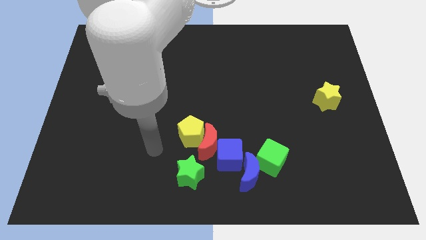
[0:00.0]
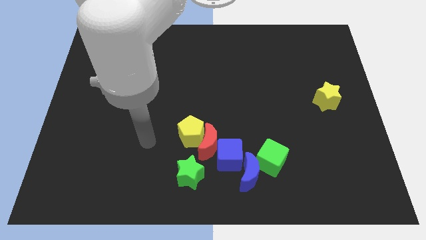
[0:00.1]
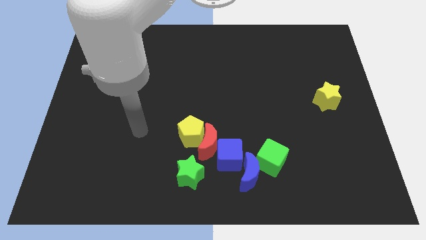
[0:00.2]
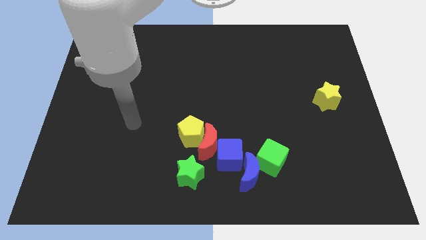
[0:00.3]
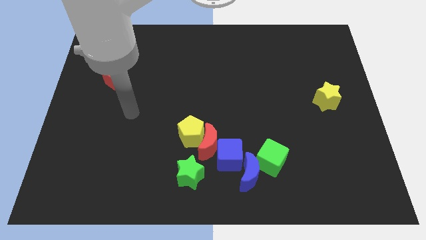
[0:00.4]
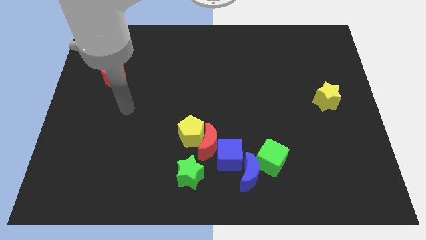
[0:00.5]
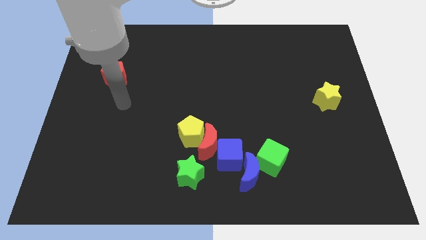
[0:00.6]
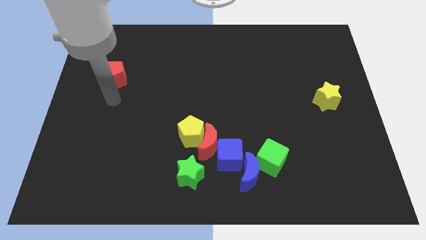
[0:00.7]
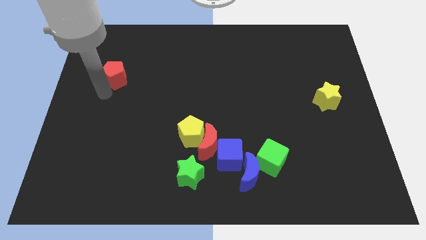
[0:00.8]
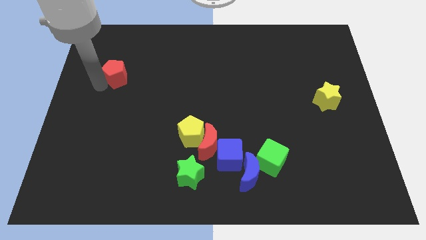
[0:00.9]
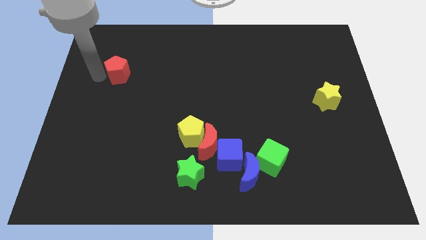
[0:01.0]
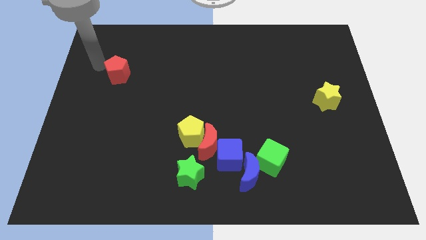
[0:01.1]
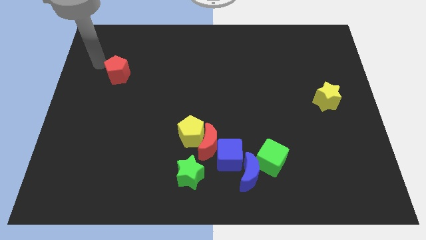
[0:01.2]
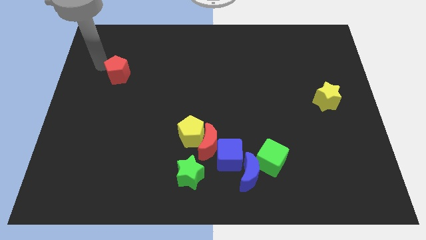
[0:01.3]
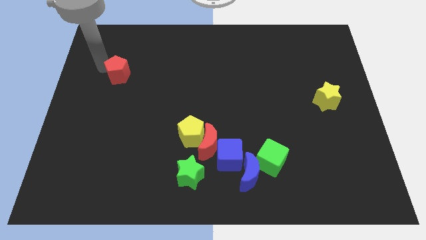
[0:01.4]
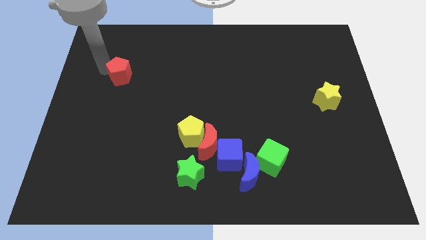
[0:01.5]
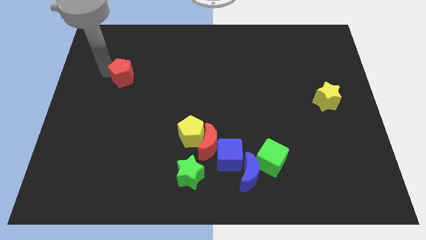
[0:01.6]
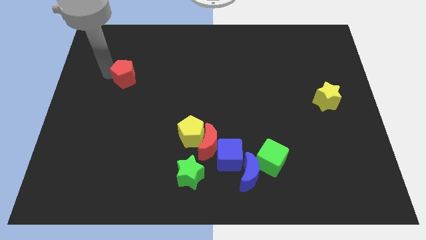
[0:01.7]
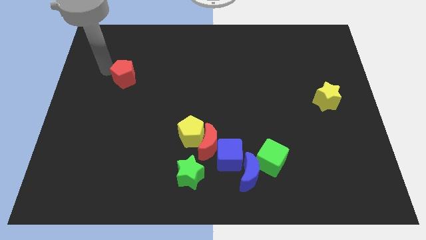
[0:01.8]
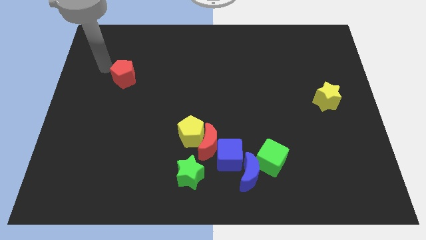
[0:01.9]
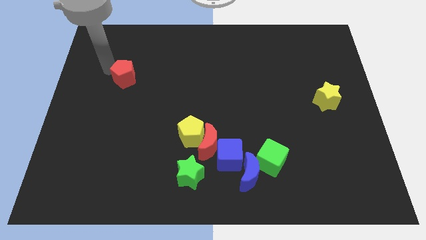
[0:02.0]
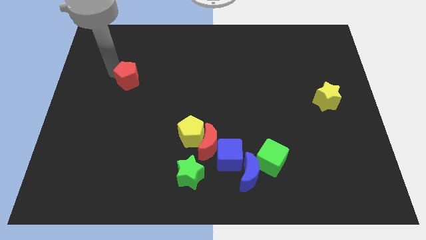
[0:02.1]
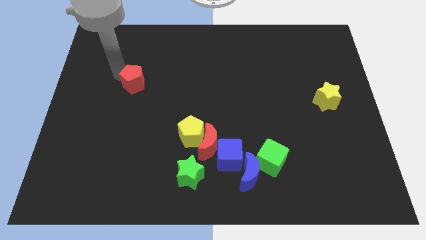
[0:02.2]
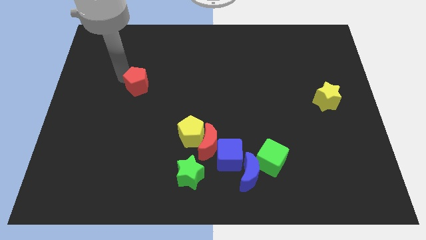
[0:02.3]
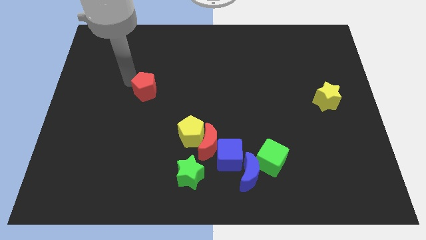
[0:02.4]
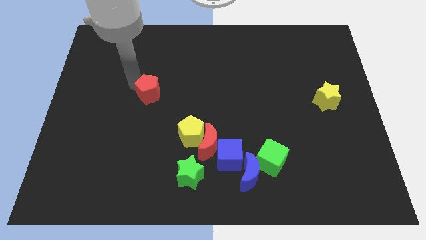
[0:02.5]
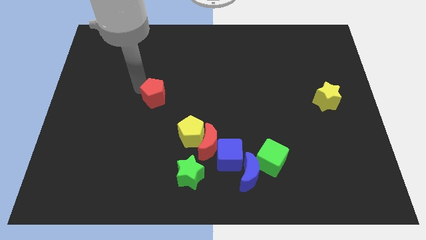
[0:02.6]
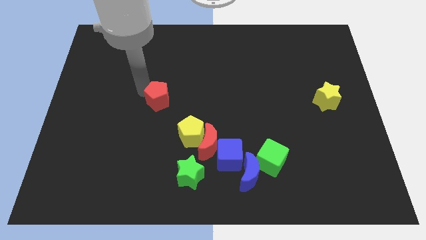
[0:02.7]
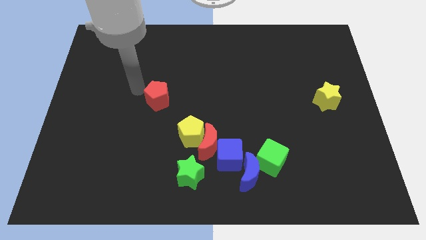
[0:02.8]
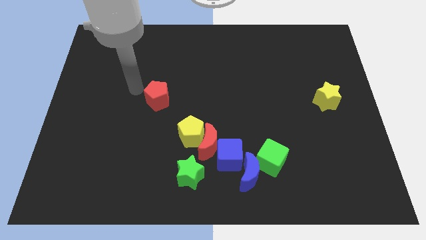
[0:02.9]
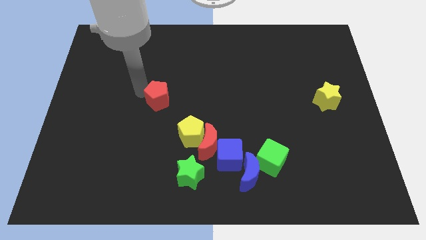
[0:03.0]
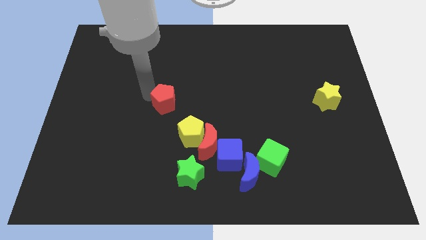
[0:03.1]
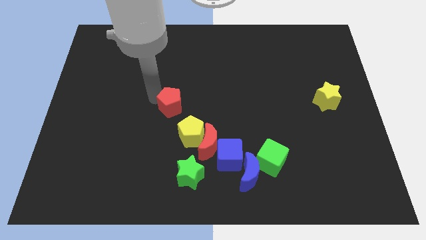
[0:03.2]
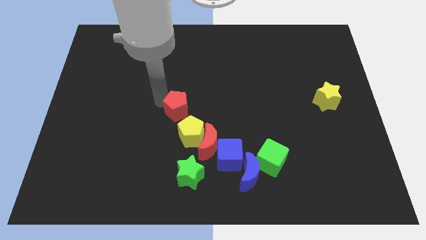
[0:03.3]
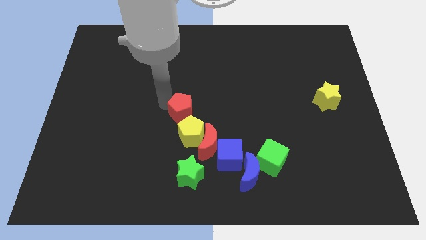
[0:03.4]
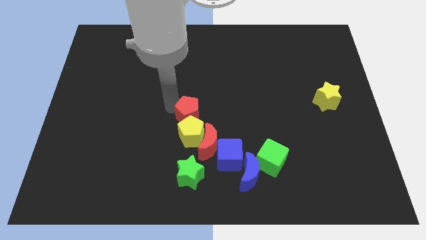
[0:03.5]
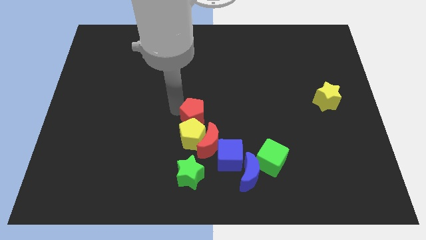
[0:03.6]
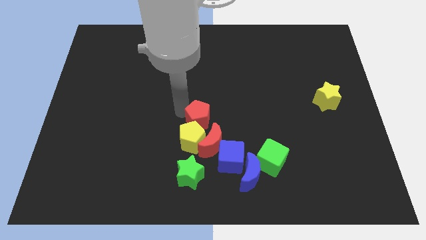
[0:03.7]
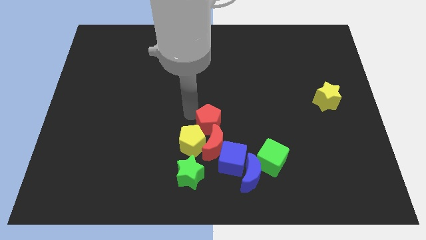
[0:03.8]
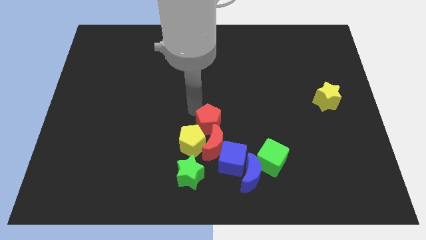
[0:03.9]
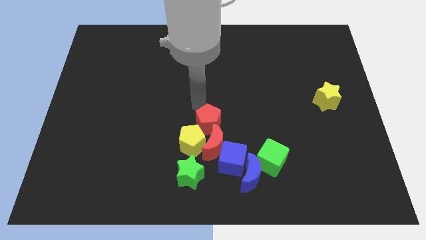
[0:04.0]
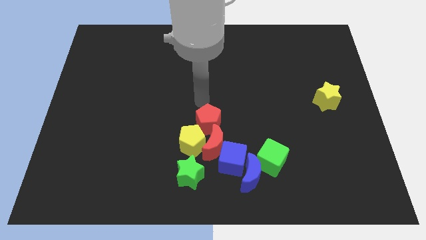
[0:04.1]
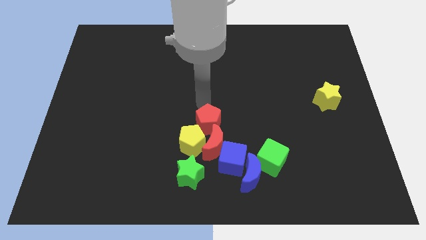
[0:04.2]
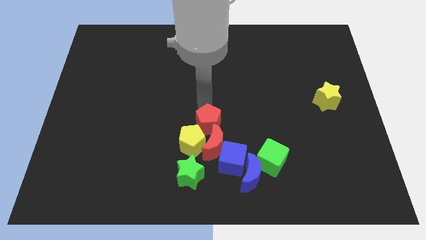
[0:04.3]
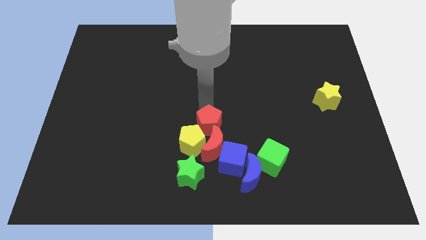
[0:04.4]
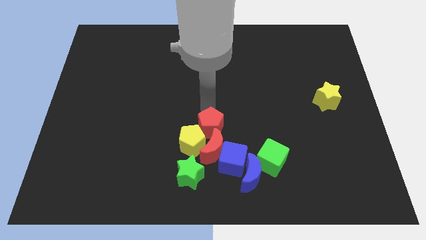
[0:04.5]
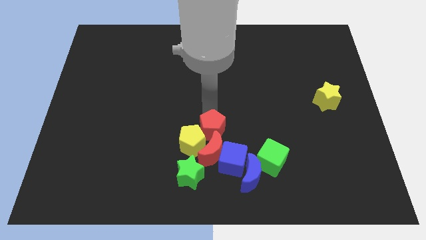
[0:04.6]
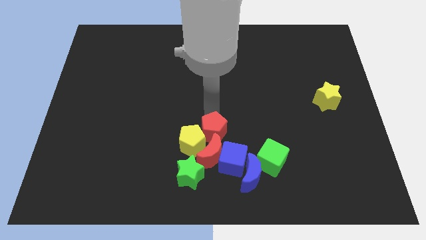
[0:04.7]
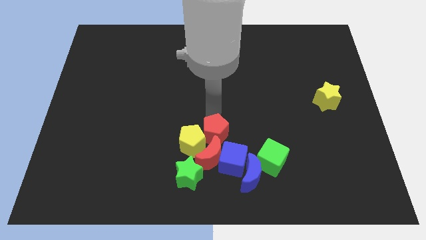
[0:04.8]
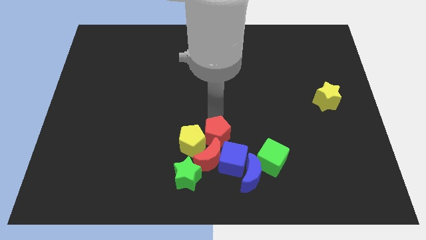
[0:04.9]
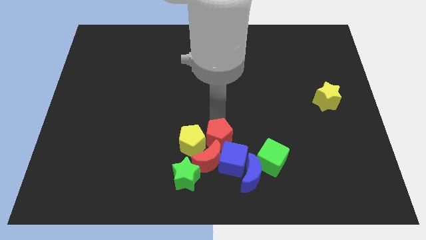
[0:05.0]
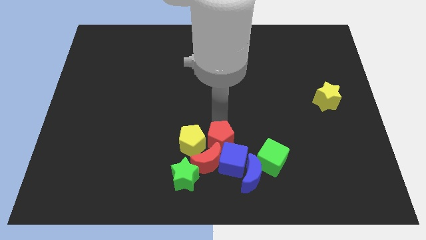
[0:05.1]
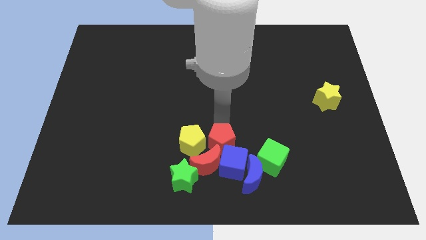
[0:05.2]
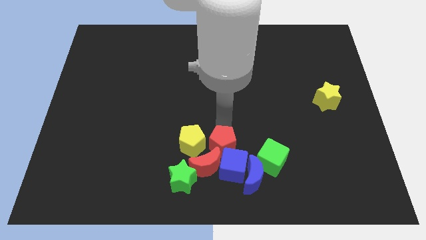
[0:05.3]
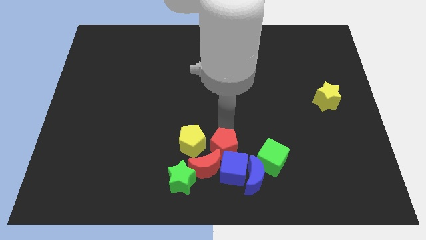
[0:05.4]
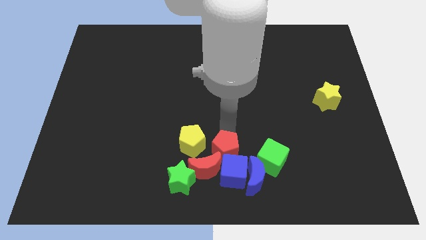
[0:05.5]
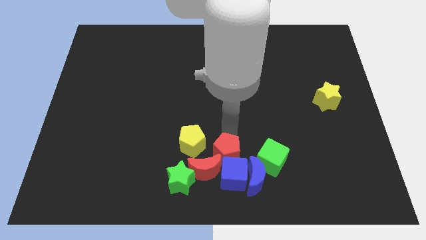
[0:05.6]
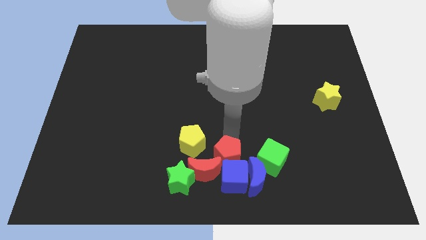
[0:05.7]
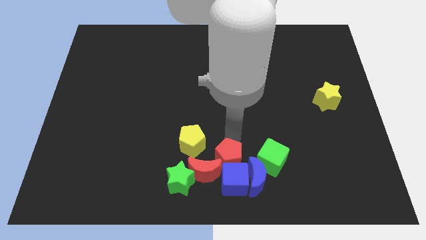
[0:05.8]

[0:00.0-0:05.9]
push the red pentagon towards the red moon

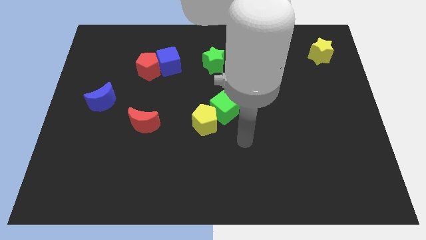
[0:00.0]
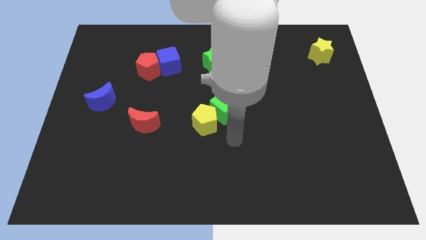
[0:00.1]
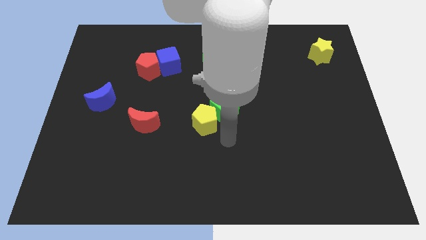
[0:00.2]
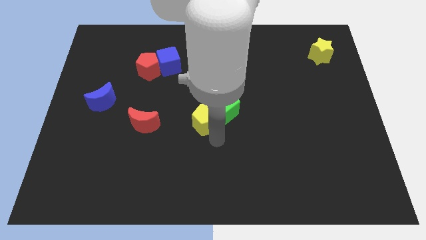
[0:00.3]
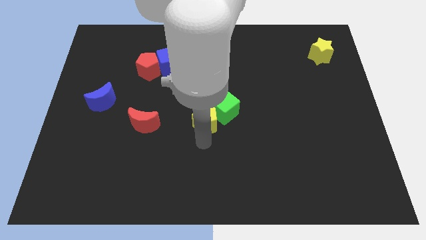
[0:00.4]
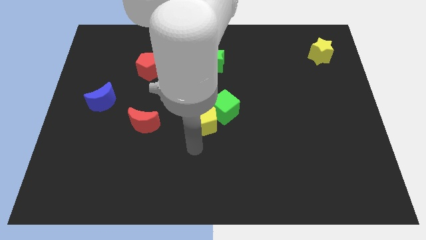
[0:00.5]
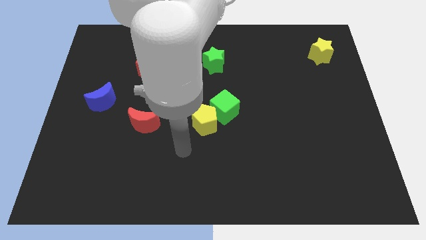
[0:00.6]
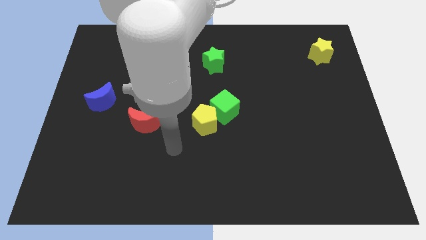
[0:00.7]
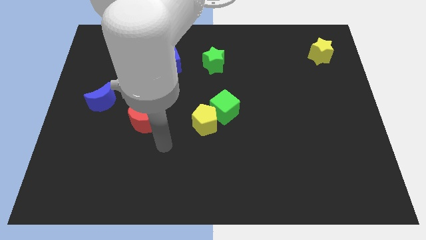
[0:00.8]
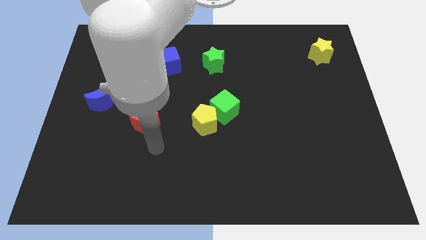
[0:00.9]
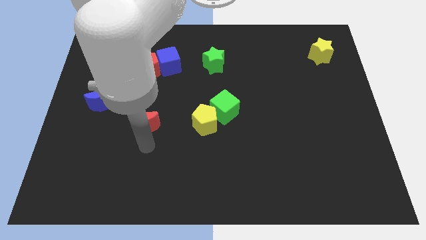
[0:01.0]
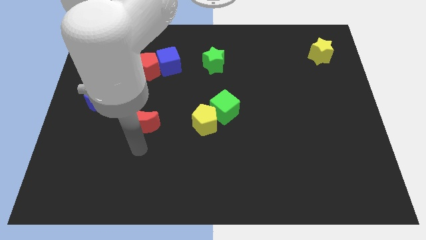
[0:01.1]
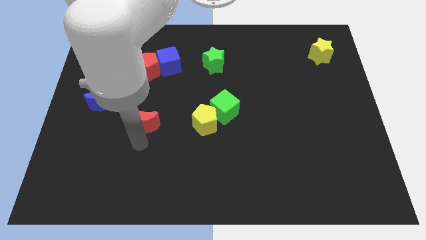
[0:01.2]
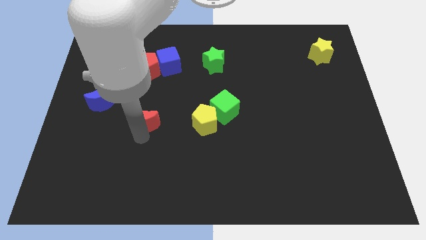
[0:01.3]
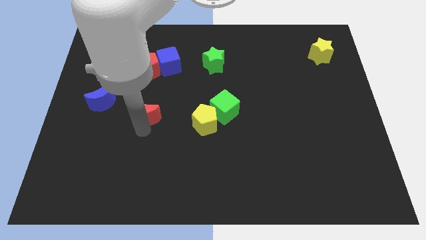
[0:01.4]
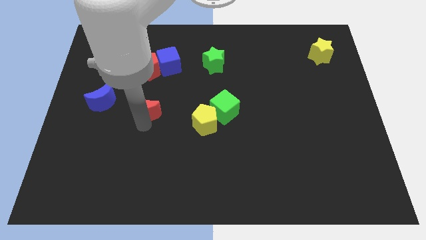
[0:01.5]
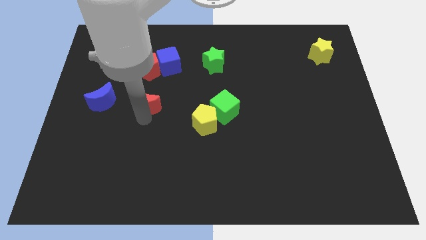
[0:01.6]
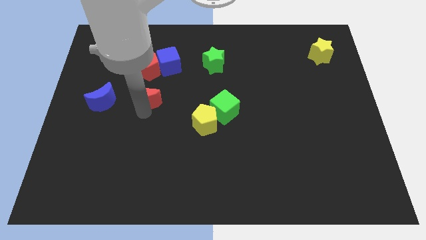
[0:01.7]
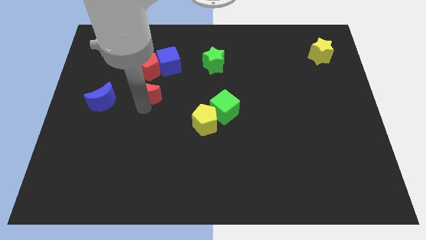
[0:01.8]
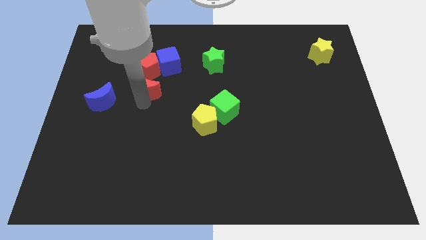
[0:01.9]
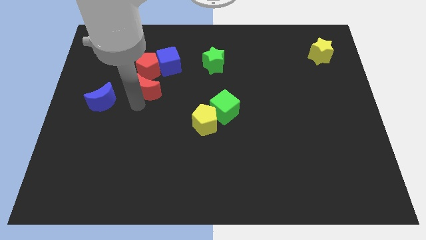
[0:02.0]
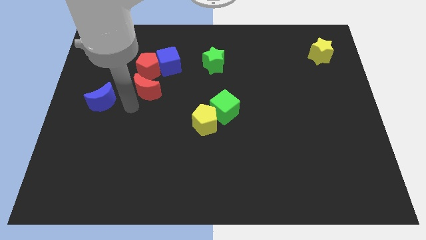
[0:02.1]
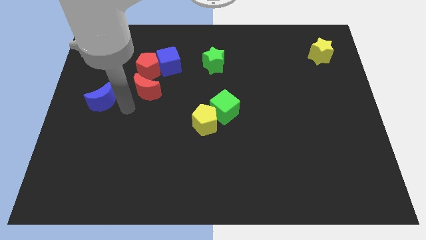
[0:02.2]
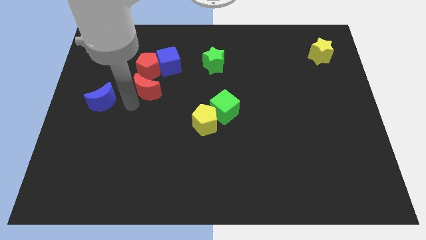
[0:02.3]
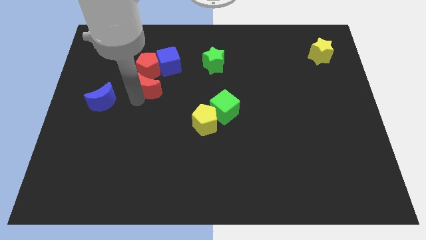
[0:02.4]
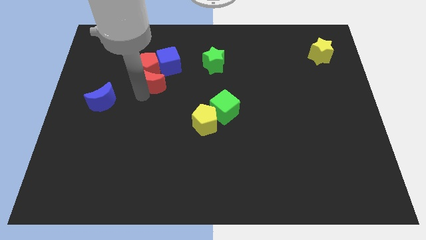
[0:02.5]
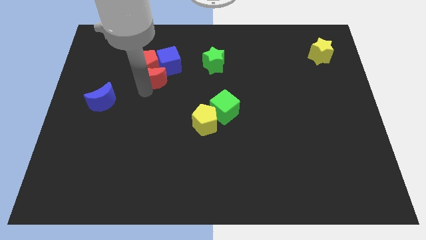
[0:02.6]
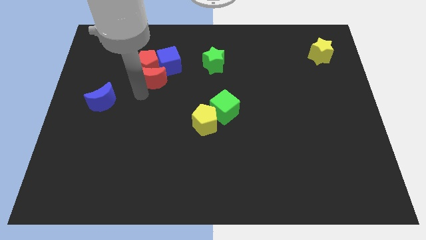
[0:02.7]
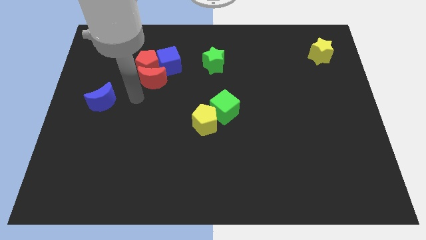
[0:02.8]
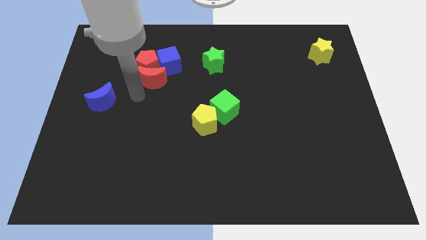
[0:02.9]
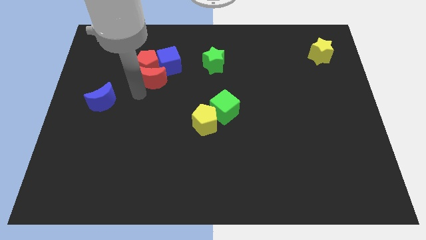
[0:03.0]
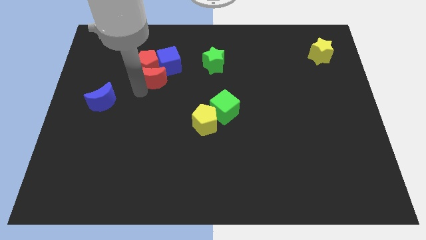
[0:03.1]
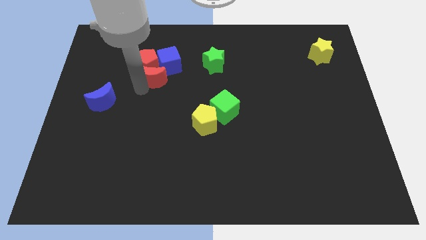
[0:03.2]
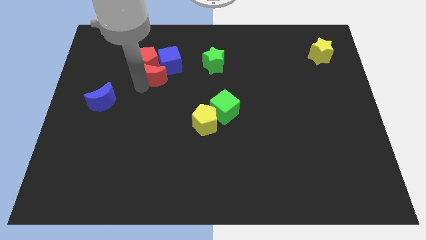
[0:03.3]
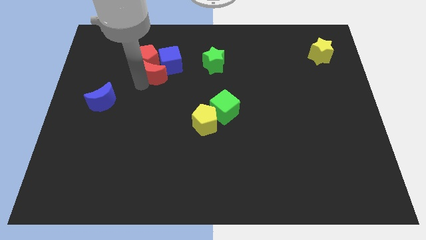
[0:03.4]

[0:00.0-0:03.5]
slide the red moon next to the blue cube
